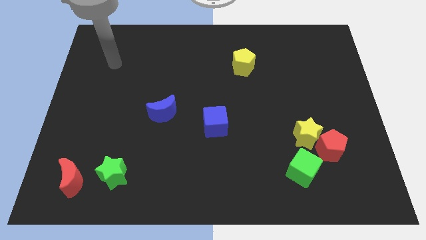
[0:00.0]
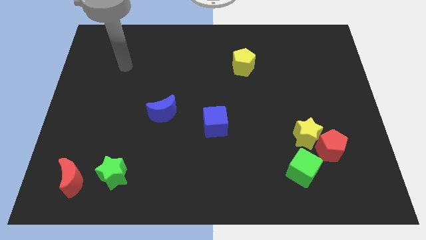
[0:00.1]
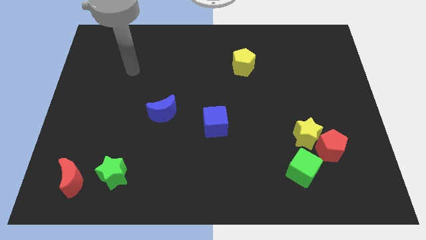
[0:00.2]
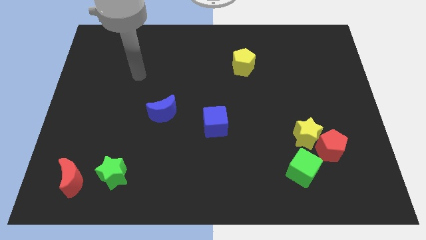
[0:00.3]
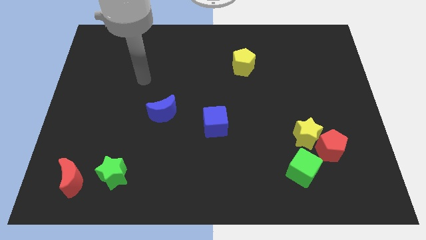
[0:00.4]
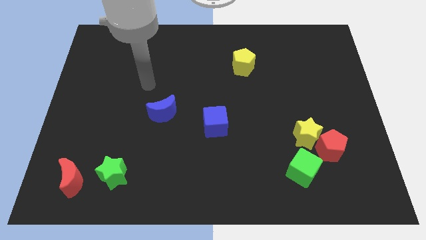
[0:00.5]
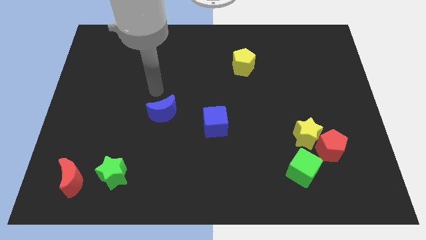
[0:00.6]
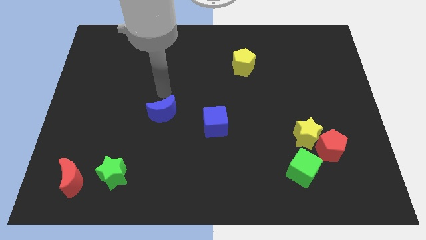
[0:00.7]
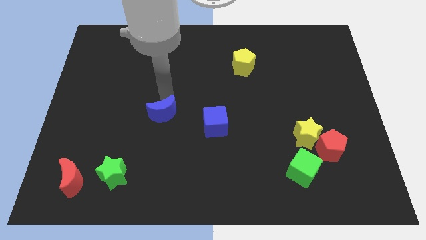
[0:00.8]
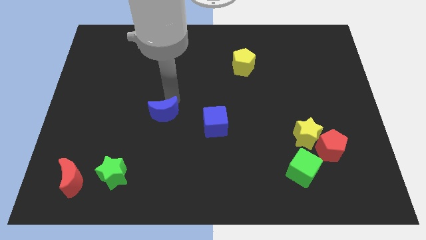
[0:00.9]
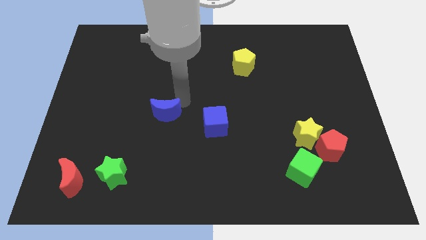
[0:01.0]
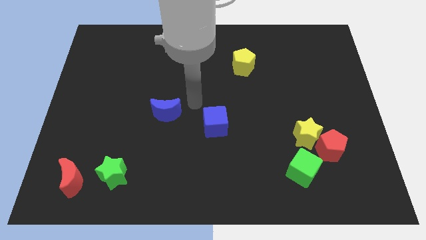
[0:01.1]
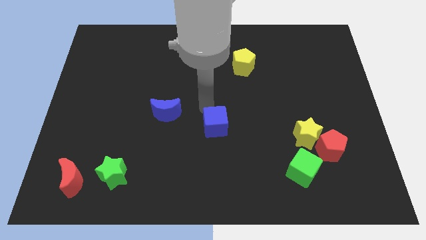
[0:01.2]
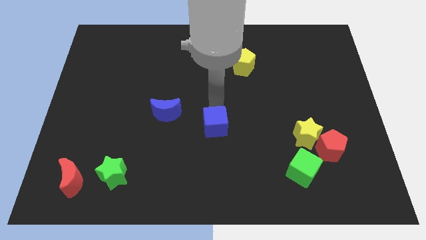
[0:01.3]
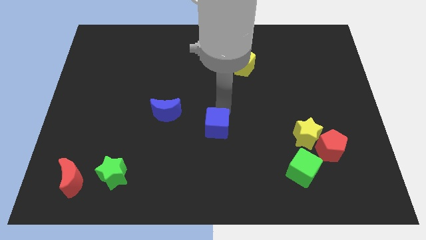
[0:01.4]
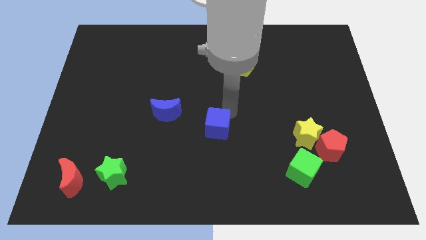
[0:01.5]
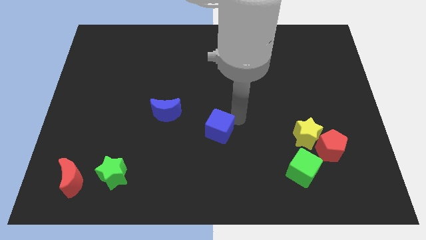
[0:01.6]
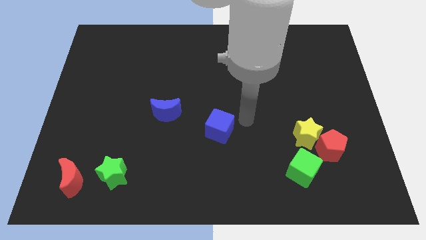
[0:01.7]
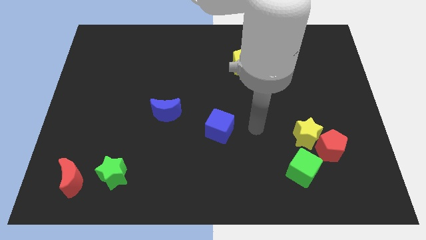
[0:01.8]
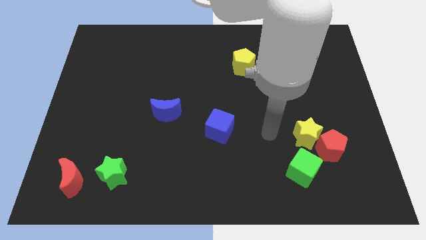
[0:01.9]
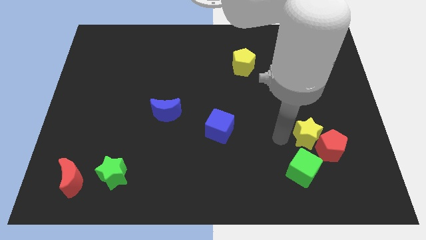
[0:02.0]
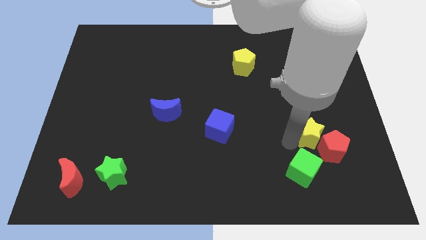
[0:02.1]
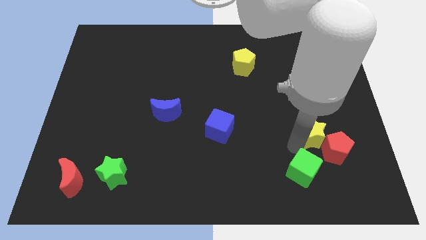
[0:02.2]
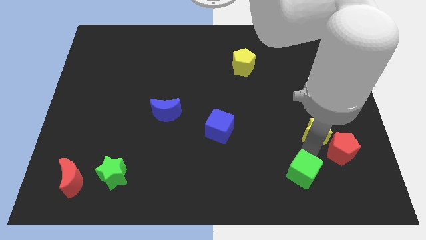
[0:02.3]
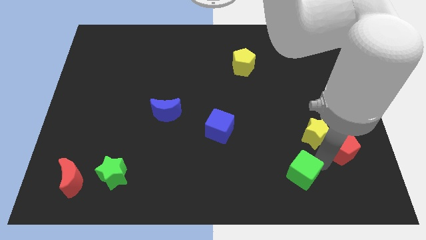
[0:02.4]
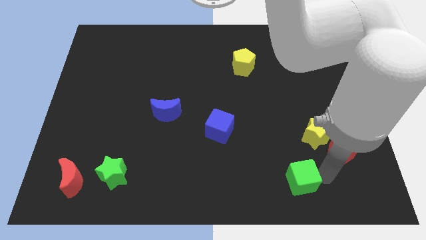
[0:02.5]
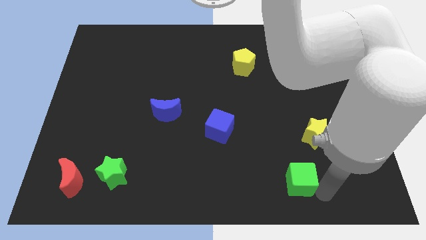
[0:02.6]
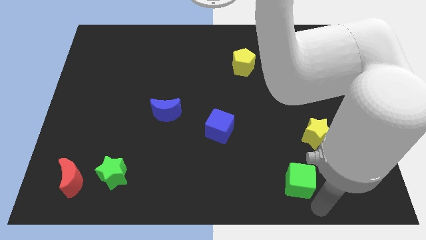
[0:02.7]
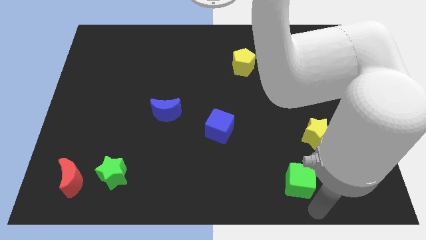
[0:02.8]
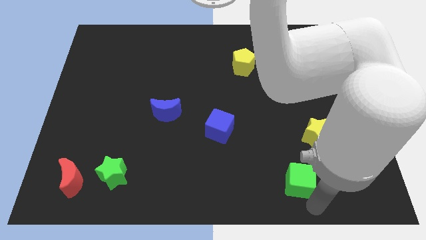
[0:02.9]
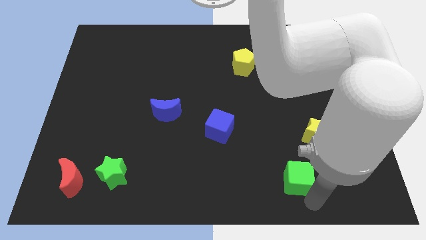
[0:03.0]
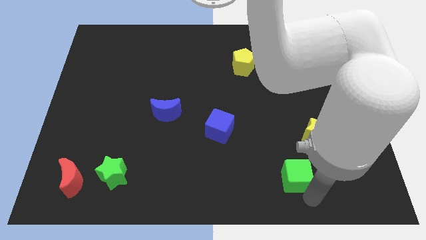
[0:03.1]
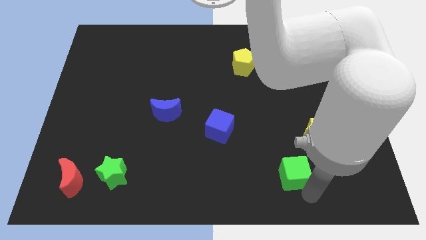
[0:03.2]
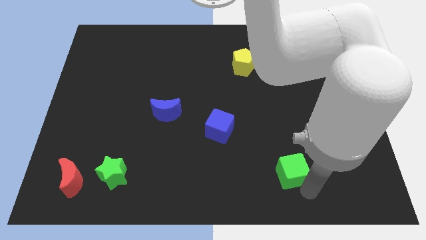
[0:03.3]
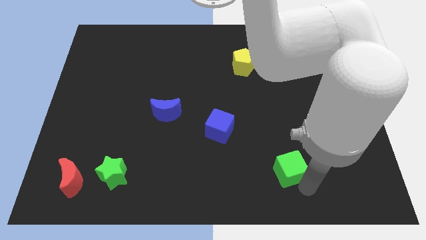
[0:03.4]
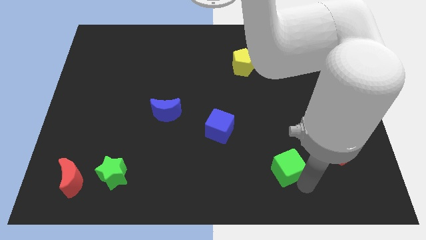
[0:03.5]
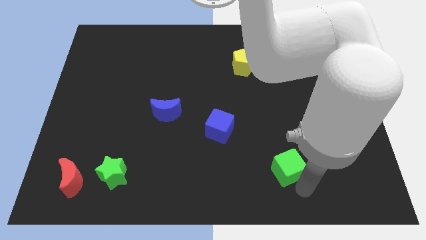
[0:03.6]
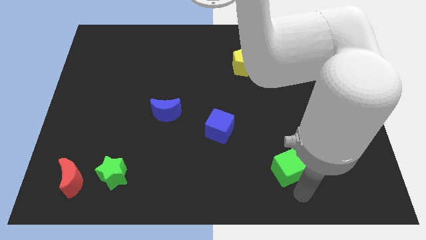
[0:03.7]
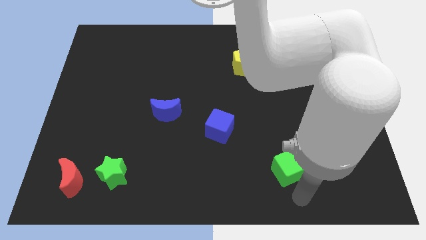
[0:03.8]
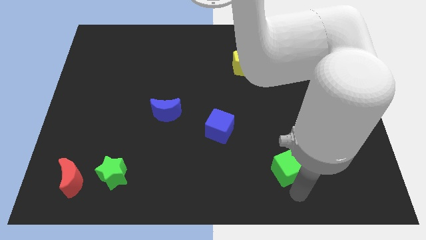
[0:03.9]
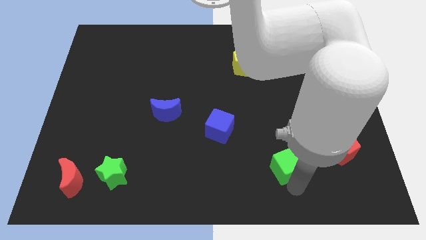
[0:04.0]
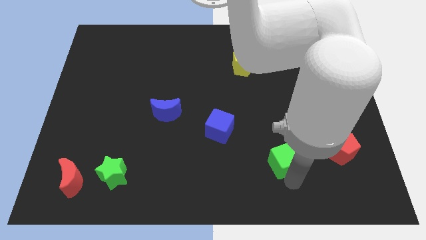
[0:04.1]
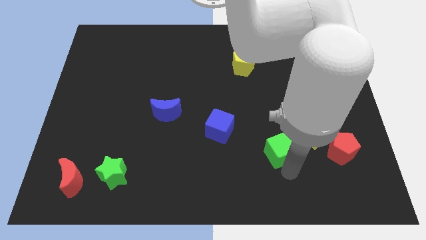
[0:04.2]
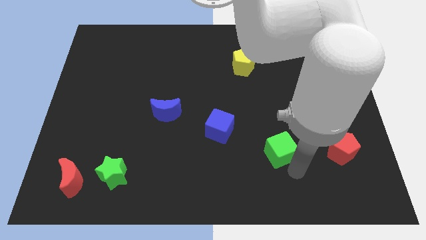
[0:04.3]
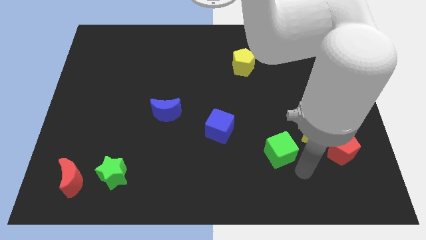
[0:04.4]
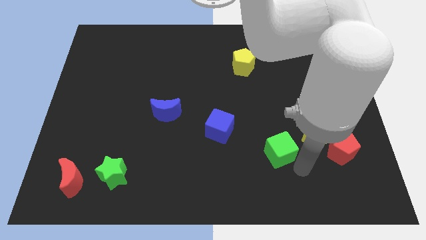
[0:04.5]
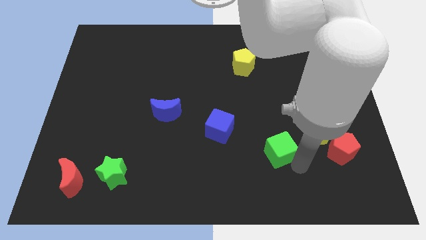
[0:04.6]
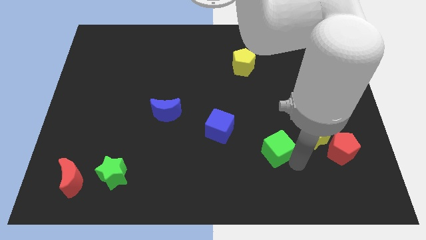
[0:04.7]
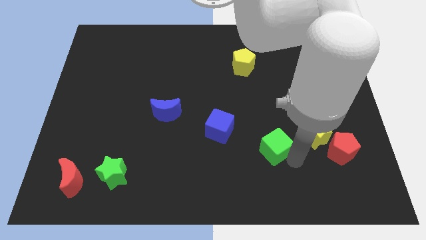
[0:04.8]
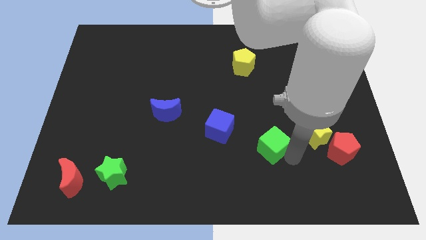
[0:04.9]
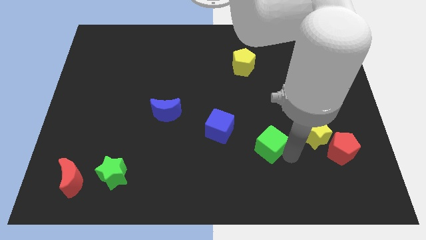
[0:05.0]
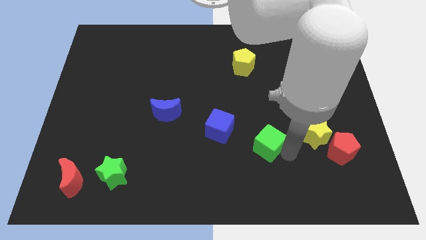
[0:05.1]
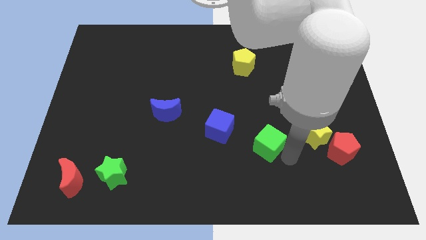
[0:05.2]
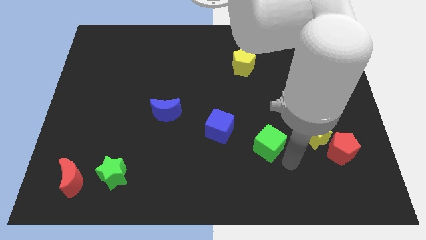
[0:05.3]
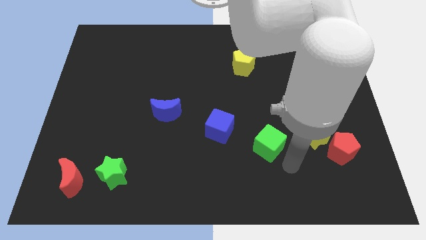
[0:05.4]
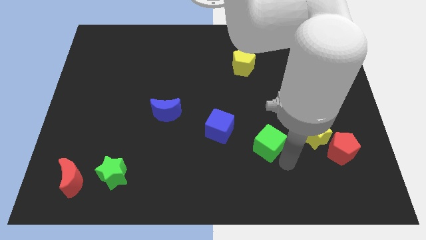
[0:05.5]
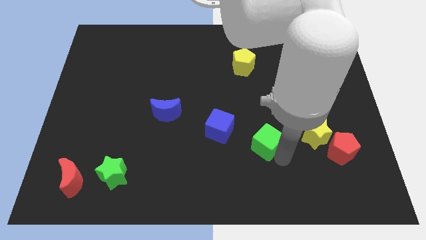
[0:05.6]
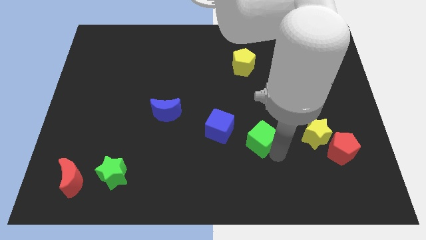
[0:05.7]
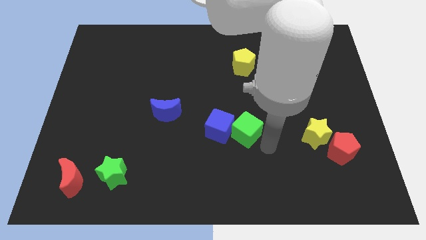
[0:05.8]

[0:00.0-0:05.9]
push the green cube to the middle of the board
